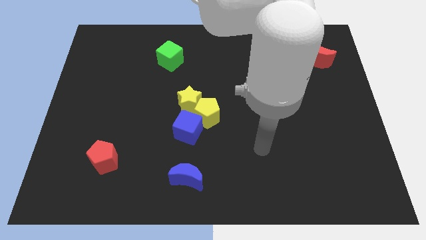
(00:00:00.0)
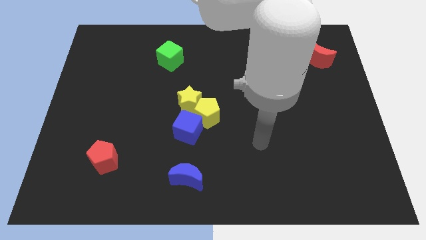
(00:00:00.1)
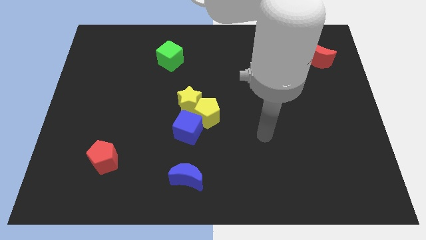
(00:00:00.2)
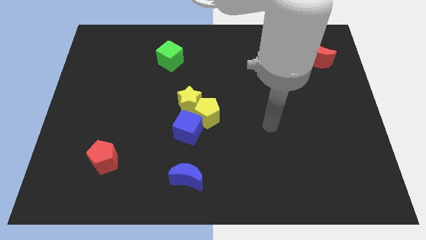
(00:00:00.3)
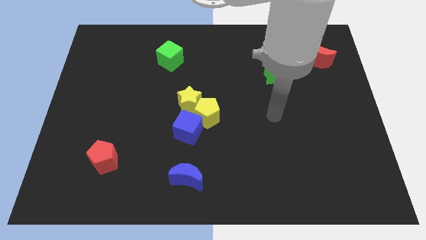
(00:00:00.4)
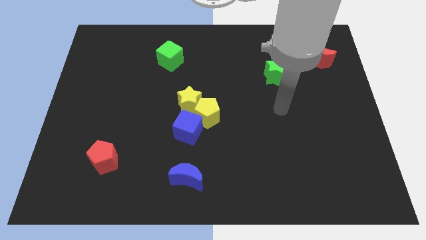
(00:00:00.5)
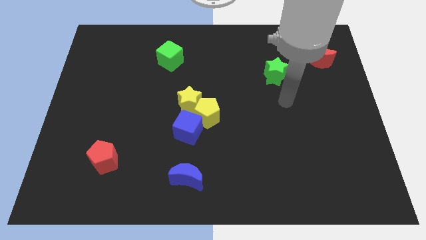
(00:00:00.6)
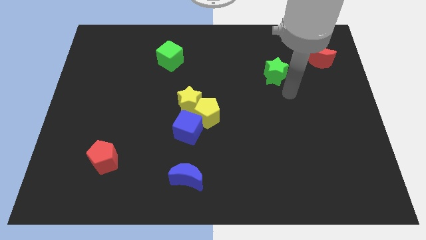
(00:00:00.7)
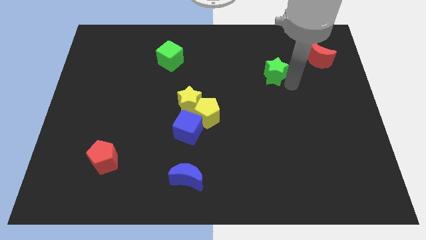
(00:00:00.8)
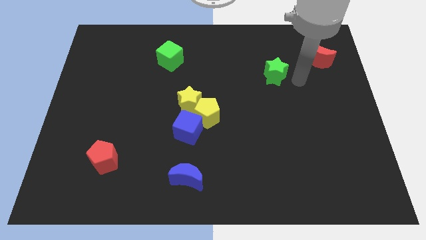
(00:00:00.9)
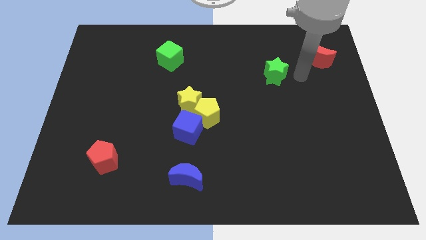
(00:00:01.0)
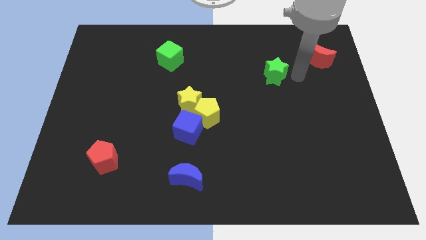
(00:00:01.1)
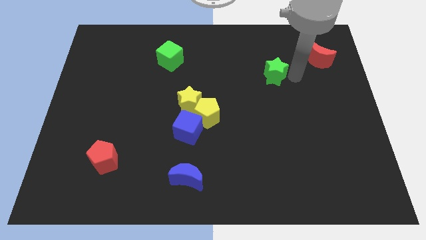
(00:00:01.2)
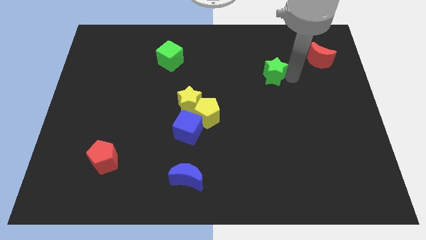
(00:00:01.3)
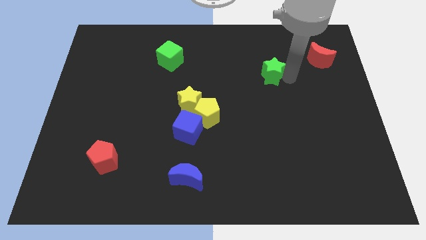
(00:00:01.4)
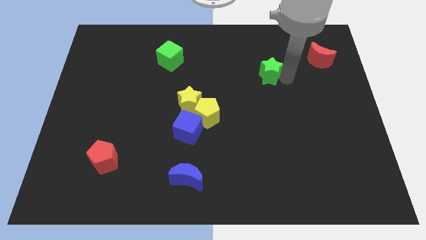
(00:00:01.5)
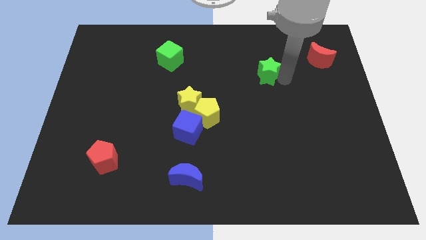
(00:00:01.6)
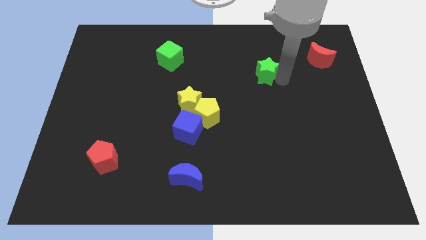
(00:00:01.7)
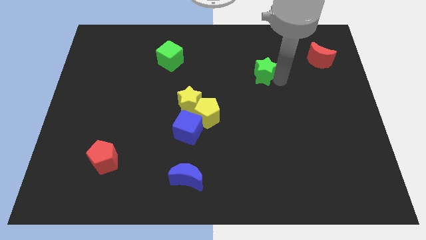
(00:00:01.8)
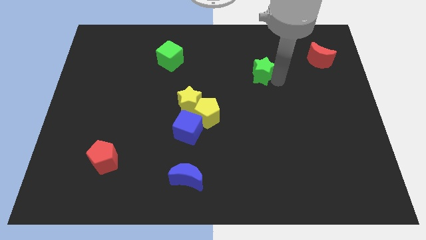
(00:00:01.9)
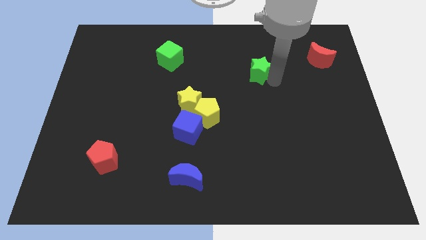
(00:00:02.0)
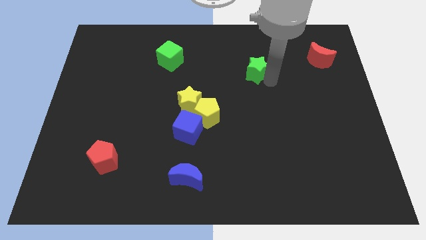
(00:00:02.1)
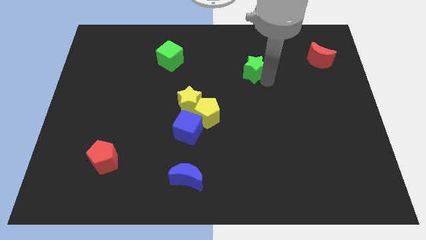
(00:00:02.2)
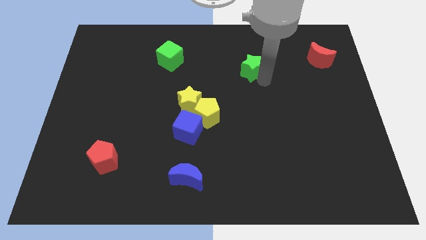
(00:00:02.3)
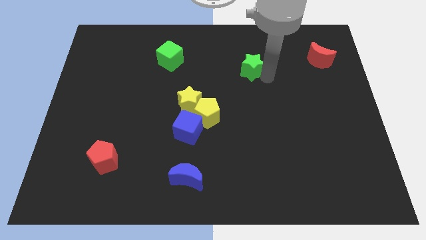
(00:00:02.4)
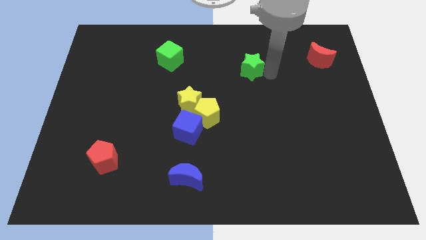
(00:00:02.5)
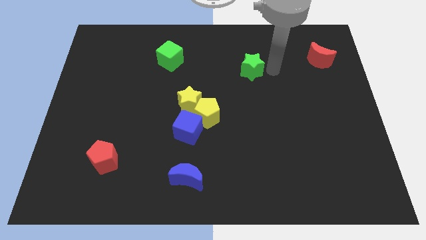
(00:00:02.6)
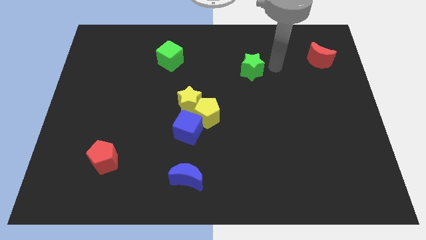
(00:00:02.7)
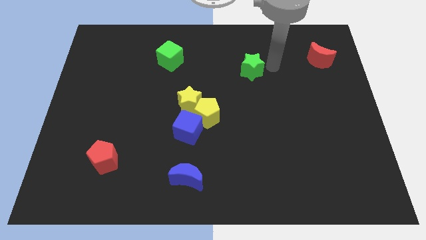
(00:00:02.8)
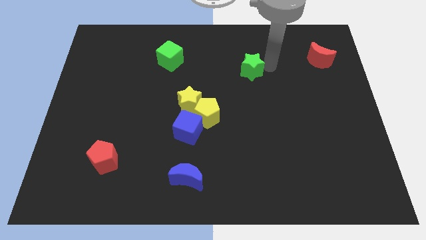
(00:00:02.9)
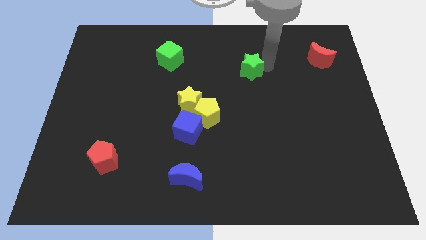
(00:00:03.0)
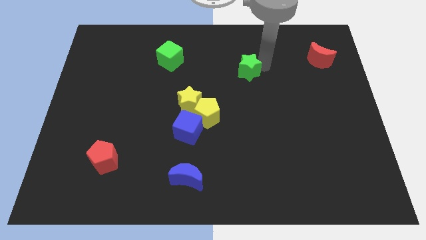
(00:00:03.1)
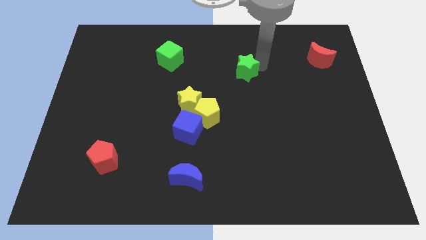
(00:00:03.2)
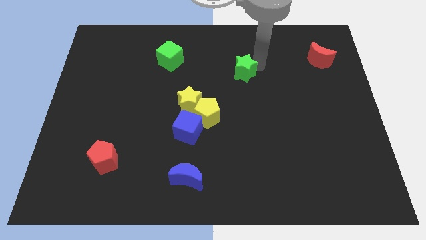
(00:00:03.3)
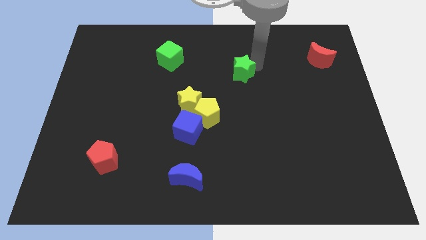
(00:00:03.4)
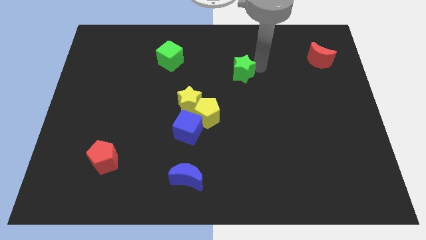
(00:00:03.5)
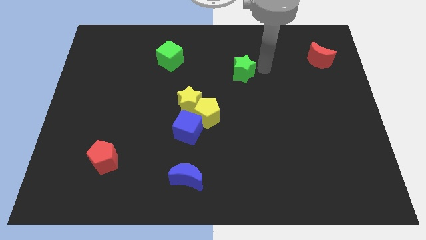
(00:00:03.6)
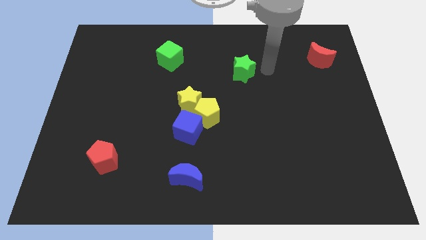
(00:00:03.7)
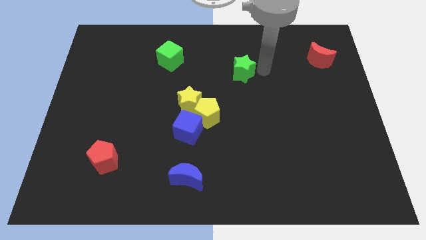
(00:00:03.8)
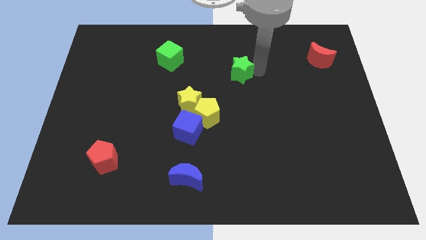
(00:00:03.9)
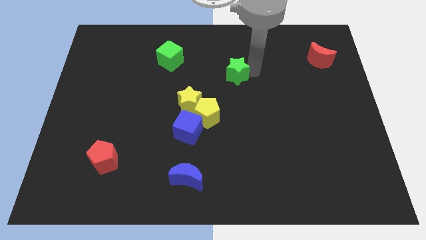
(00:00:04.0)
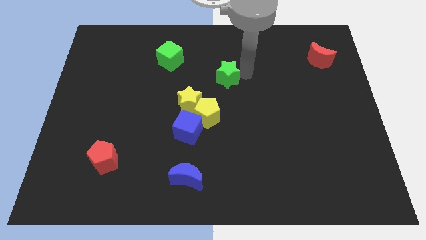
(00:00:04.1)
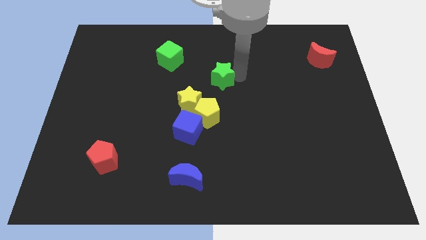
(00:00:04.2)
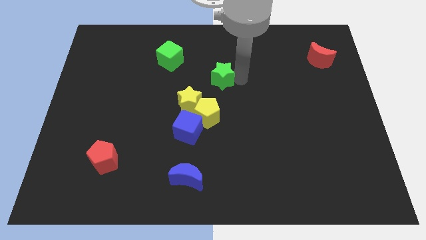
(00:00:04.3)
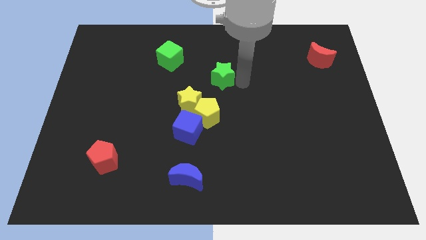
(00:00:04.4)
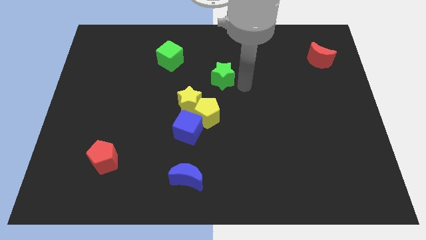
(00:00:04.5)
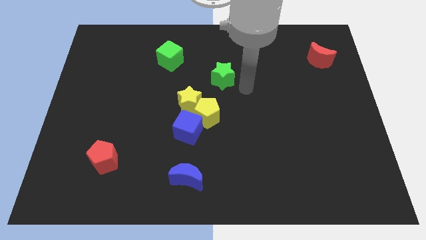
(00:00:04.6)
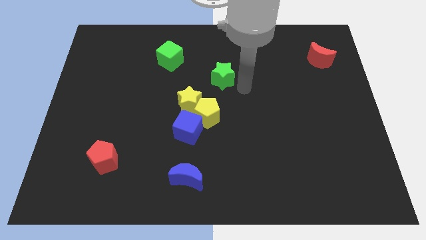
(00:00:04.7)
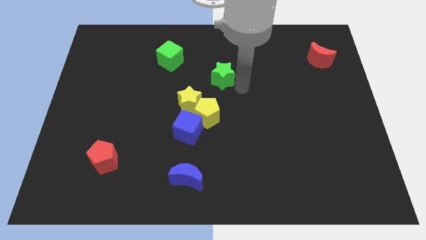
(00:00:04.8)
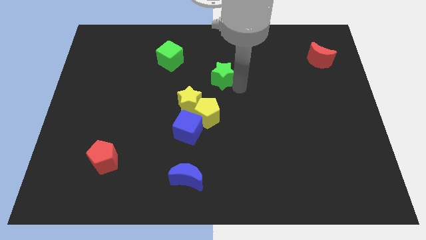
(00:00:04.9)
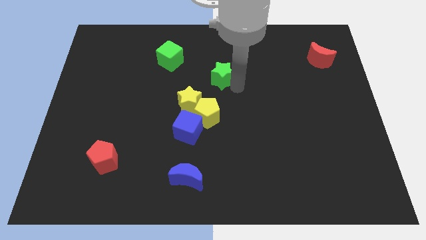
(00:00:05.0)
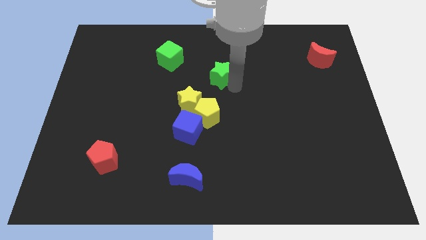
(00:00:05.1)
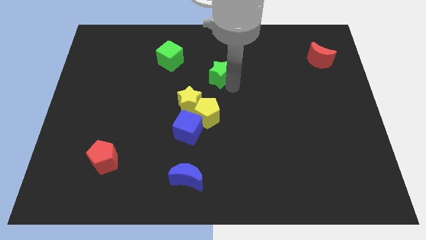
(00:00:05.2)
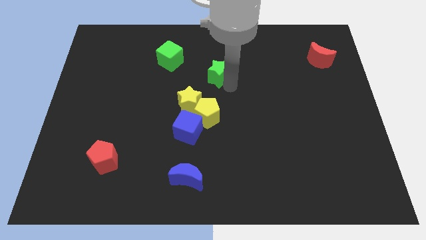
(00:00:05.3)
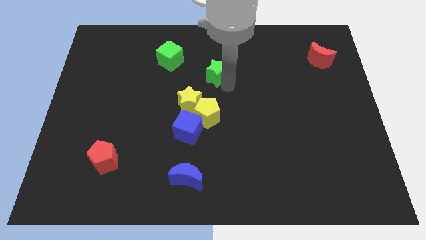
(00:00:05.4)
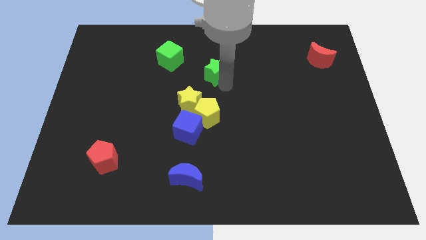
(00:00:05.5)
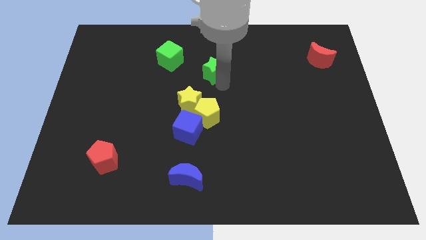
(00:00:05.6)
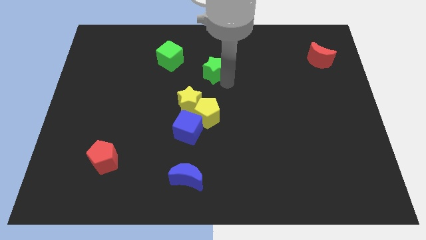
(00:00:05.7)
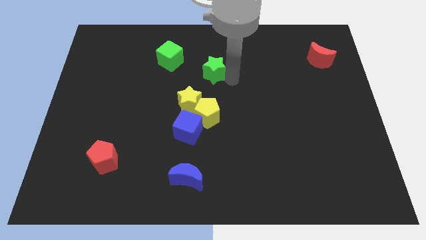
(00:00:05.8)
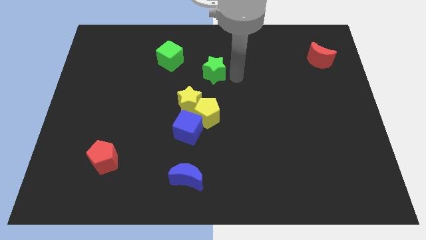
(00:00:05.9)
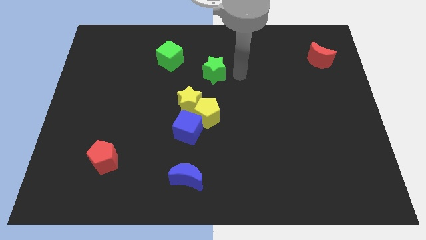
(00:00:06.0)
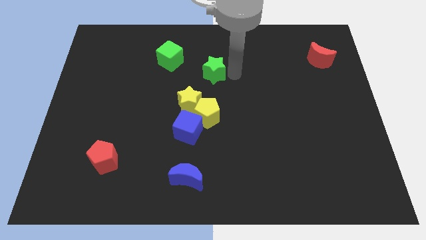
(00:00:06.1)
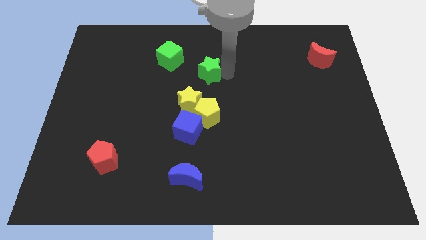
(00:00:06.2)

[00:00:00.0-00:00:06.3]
move the green star above the yellow star

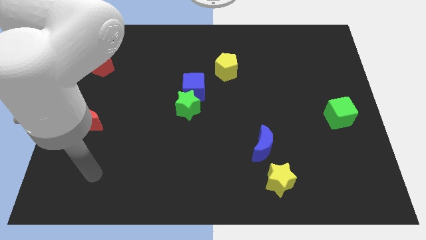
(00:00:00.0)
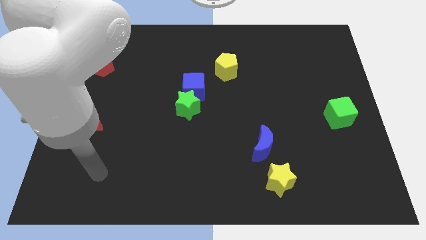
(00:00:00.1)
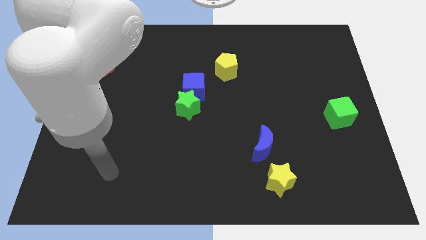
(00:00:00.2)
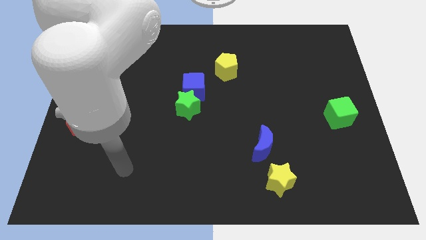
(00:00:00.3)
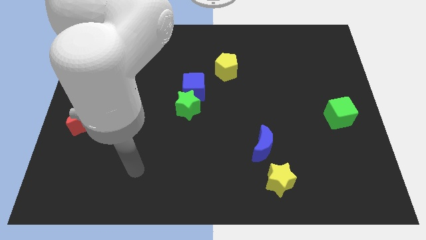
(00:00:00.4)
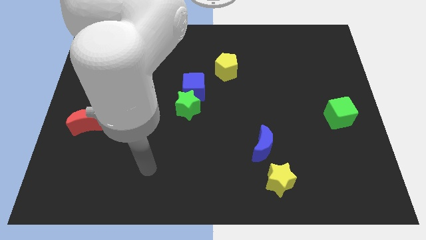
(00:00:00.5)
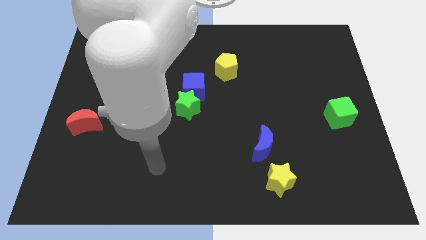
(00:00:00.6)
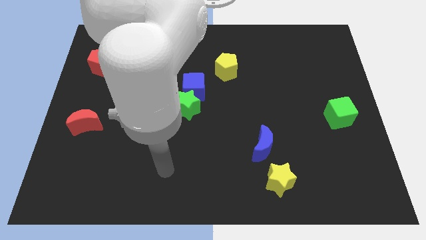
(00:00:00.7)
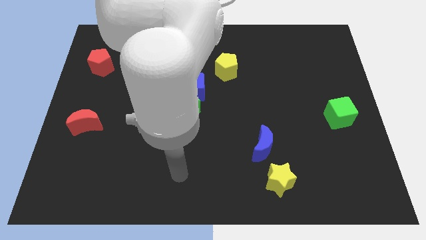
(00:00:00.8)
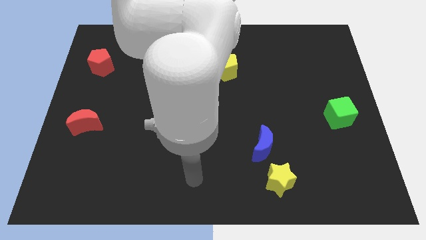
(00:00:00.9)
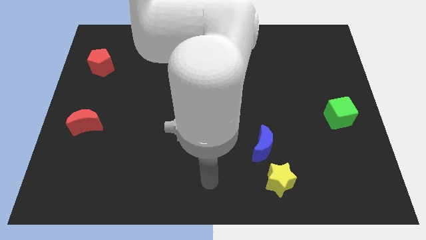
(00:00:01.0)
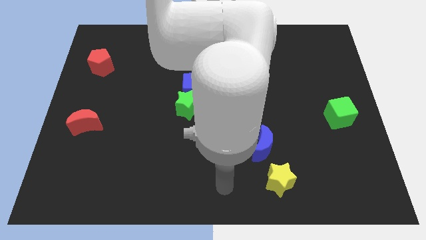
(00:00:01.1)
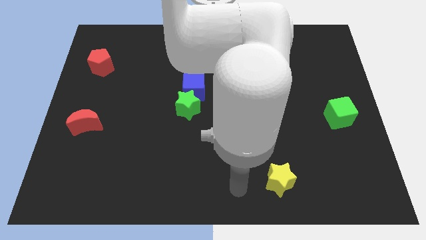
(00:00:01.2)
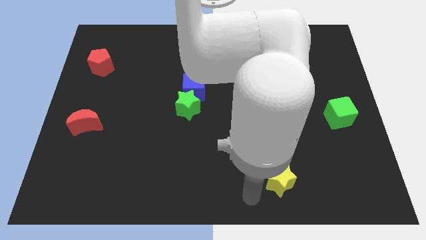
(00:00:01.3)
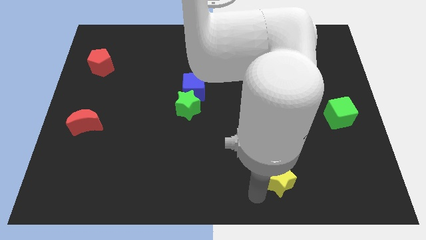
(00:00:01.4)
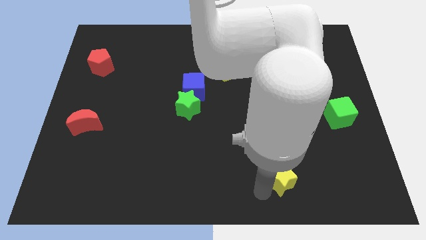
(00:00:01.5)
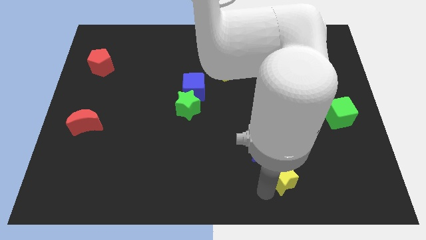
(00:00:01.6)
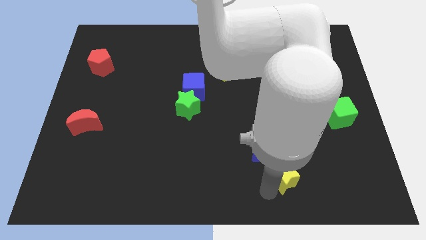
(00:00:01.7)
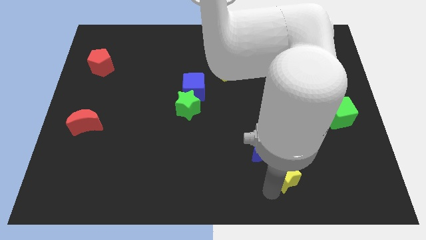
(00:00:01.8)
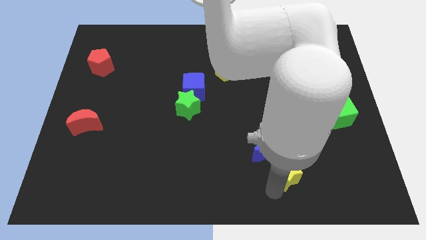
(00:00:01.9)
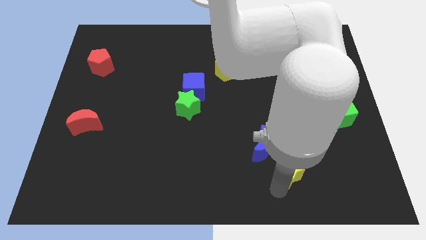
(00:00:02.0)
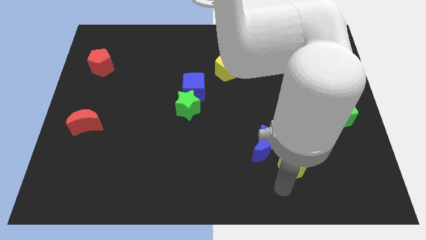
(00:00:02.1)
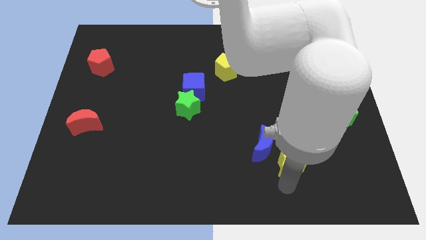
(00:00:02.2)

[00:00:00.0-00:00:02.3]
put the yellow star right of the blue moon
